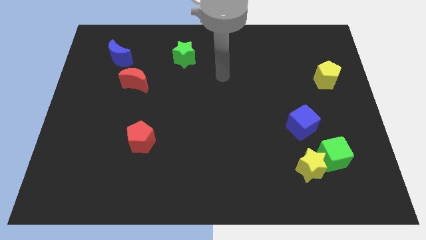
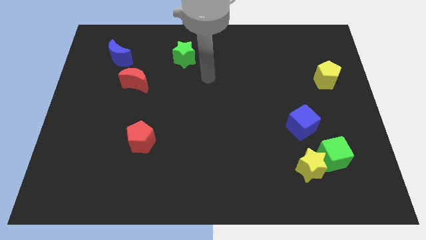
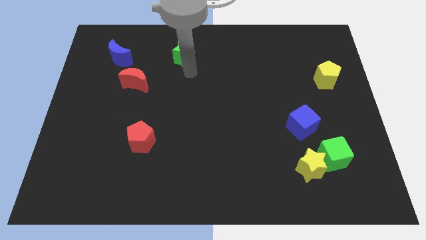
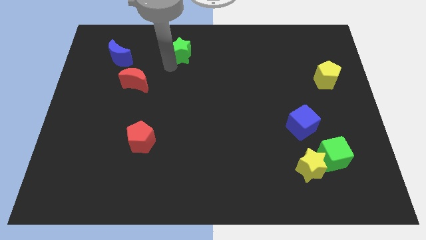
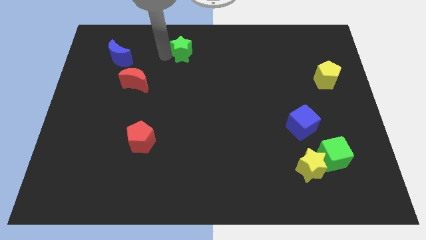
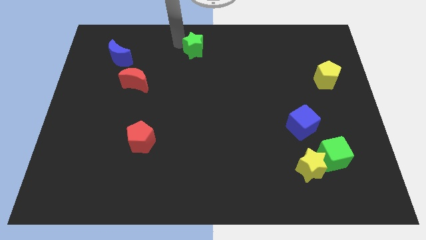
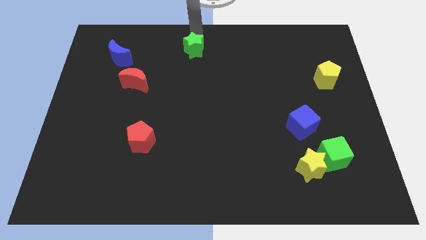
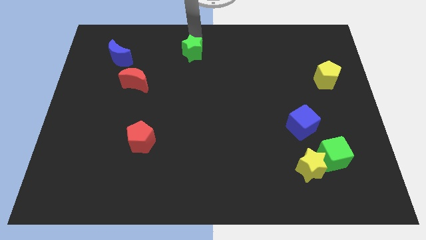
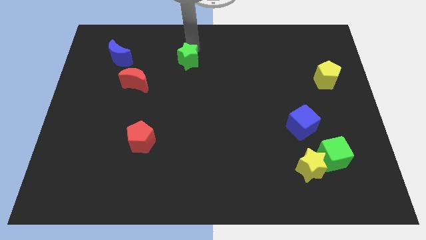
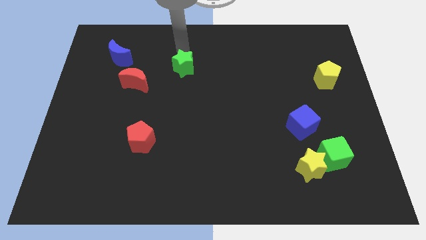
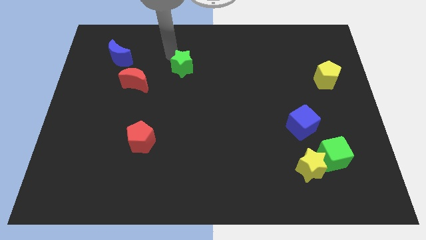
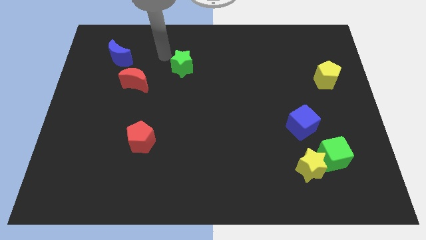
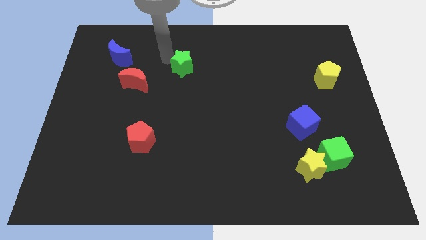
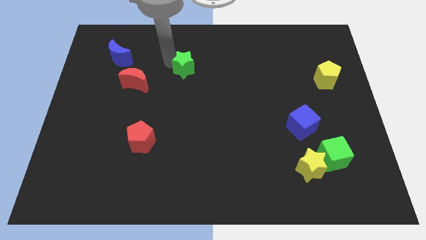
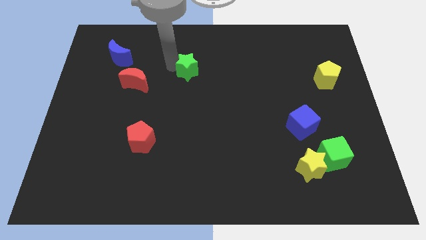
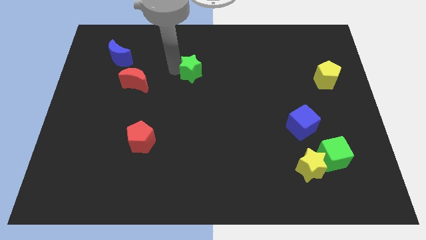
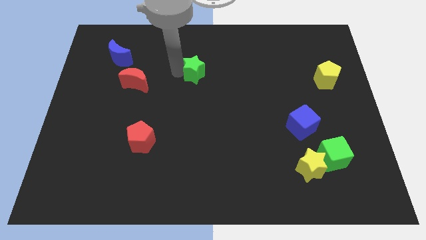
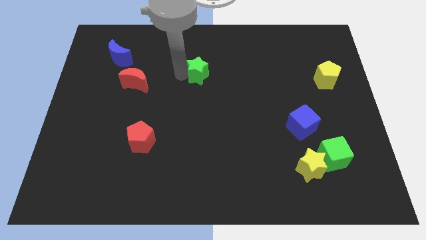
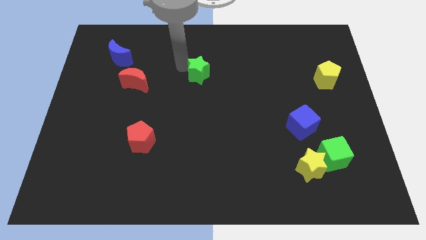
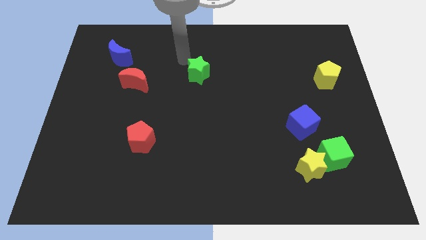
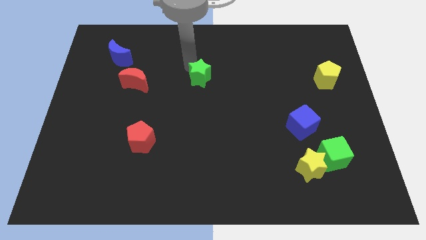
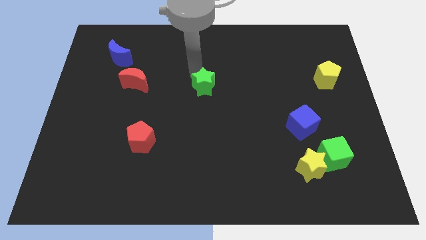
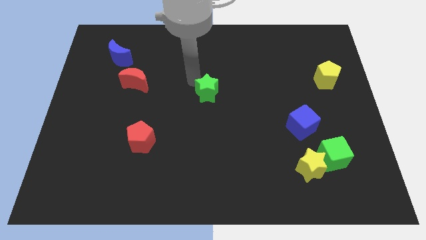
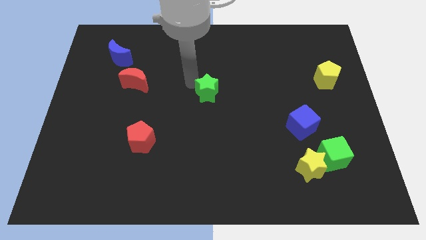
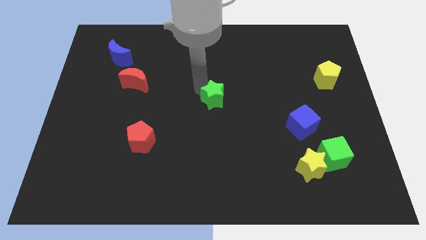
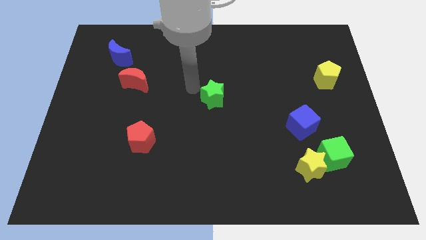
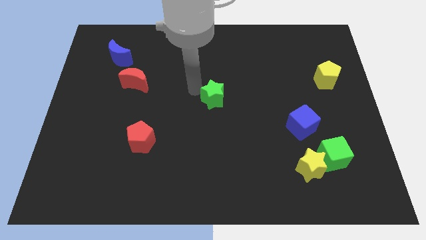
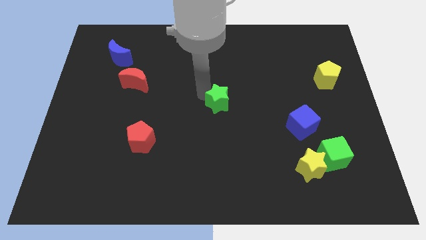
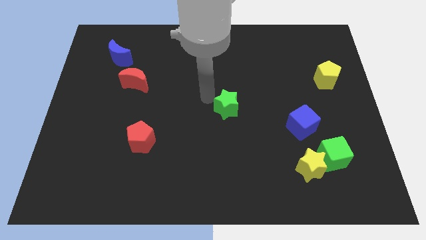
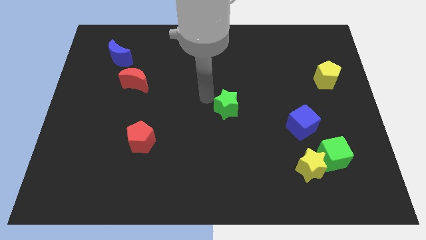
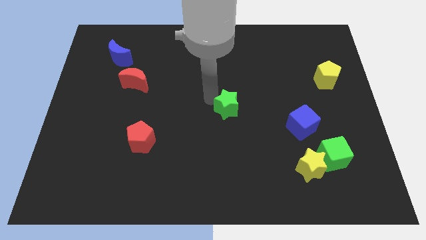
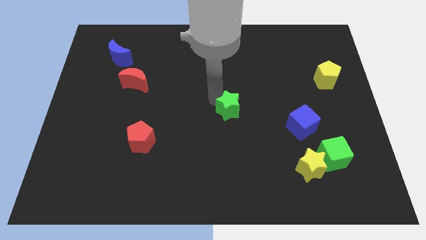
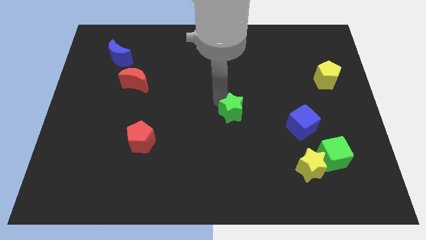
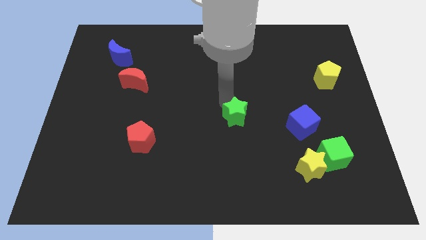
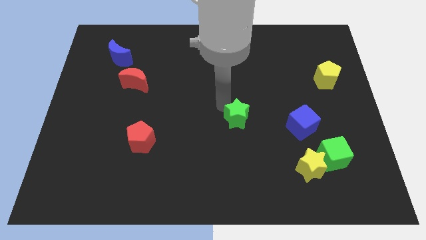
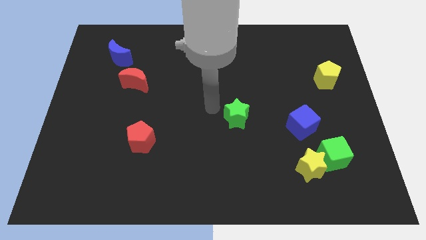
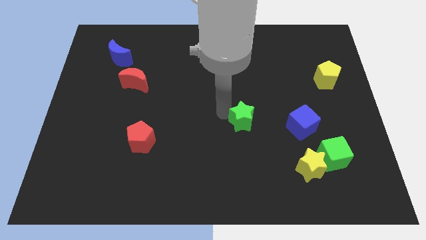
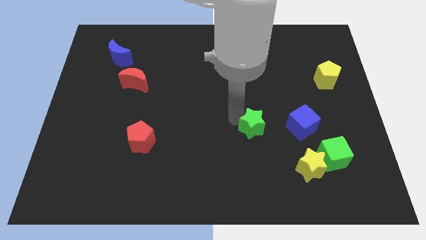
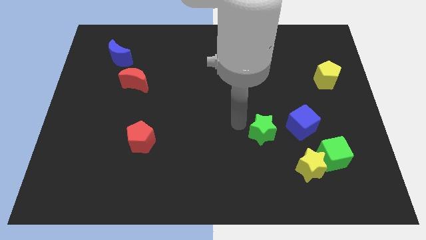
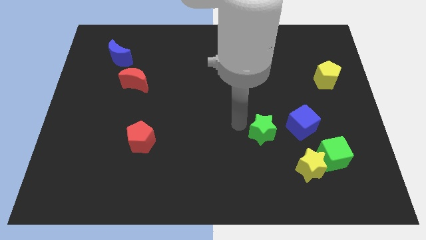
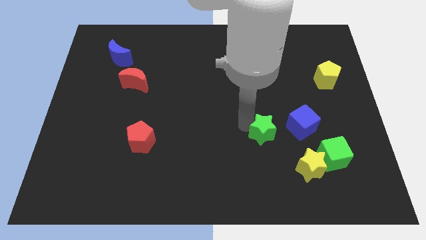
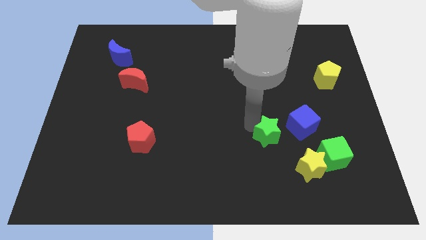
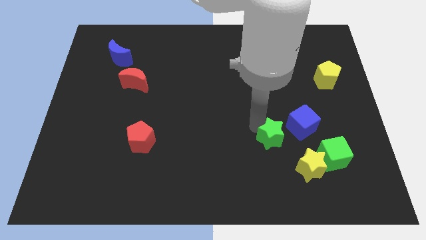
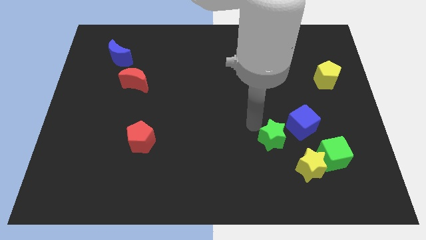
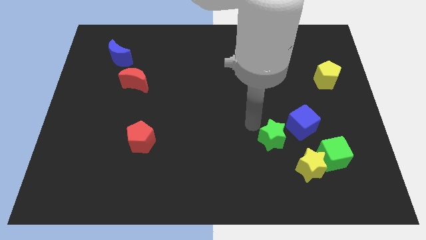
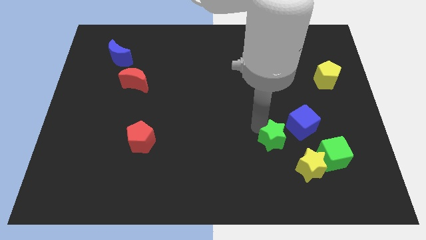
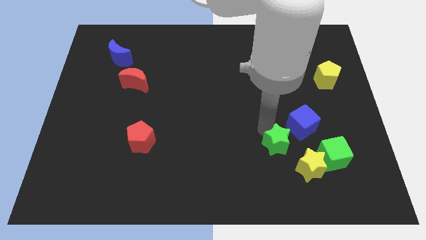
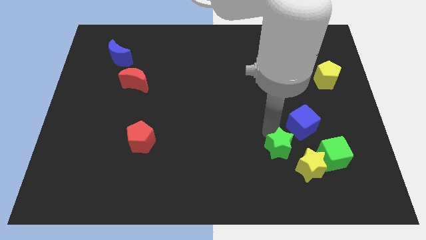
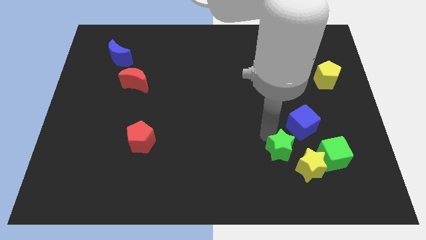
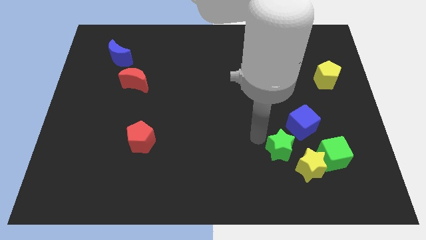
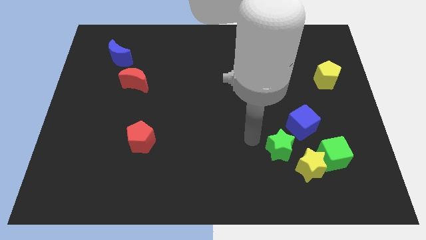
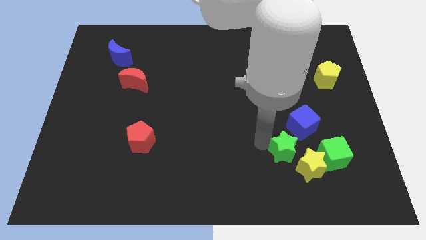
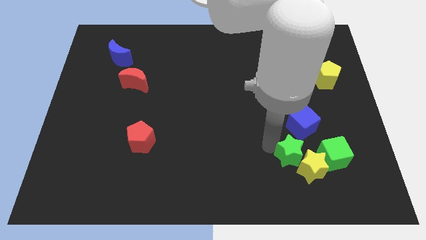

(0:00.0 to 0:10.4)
push the green star next to the yellow star

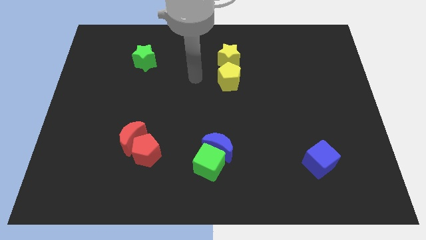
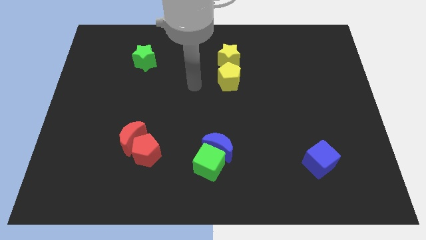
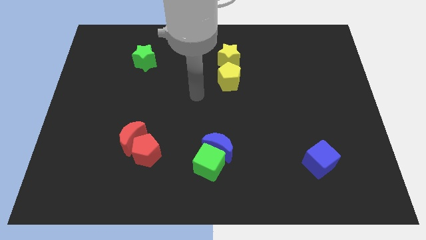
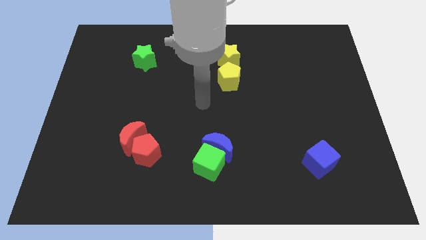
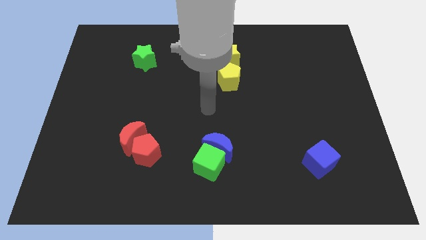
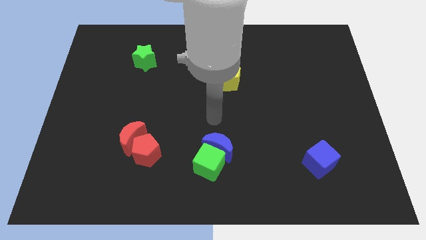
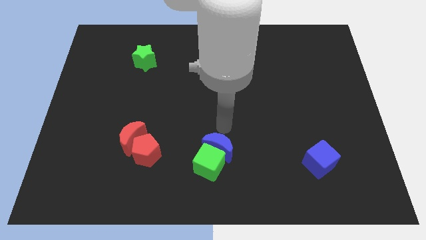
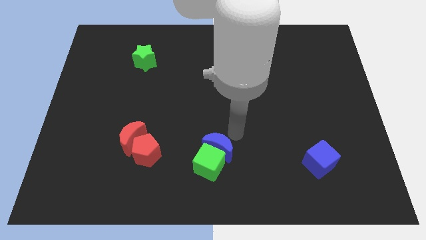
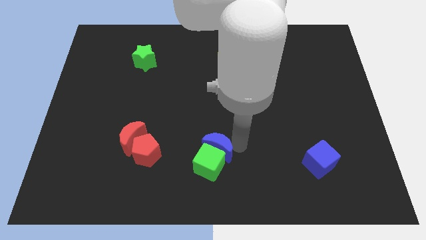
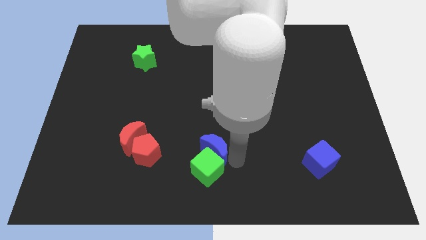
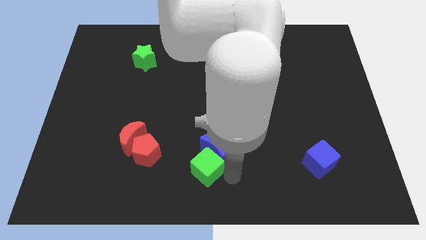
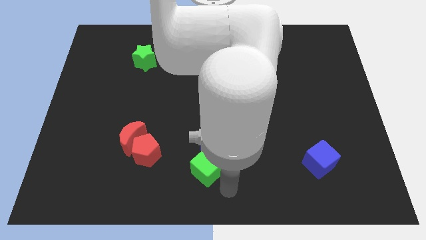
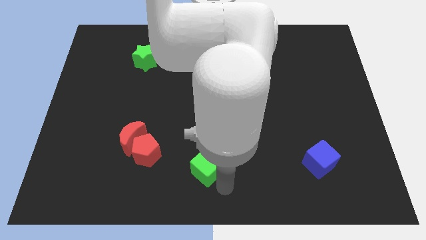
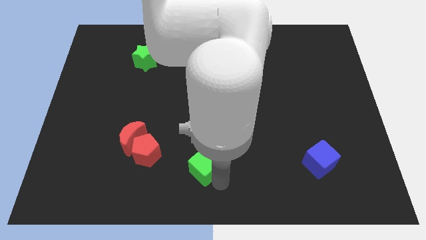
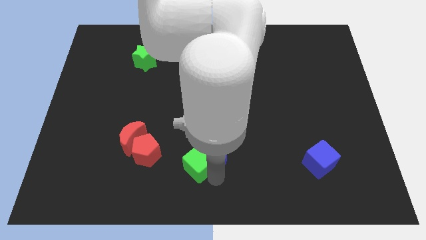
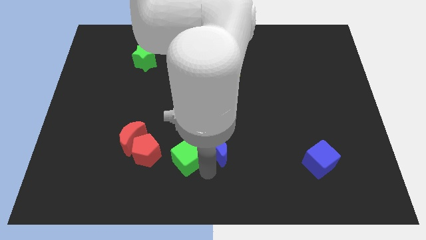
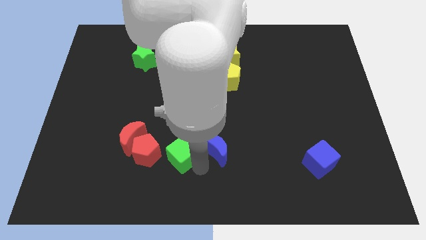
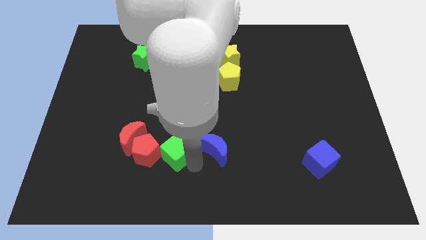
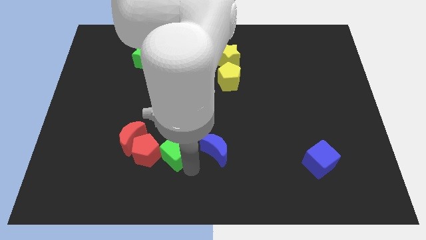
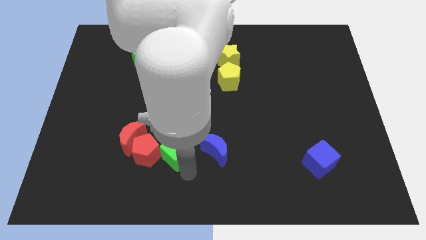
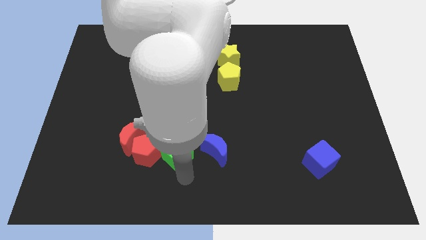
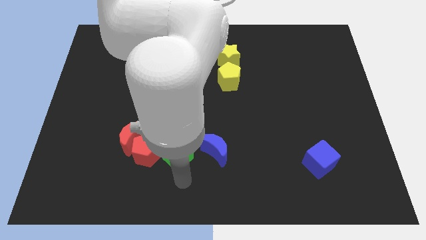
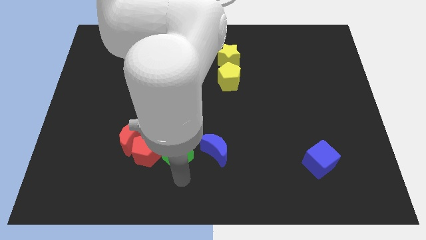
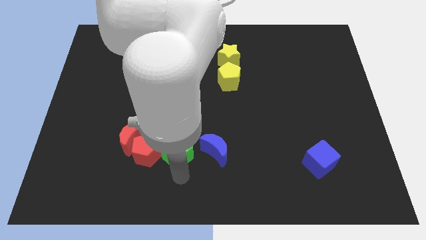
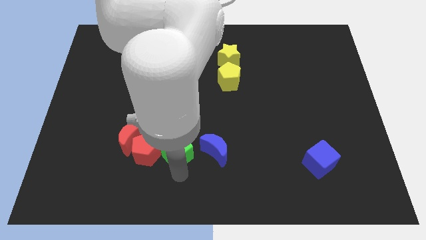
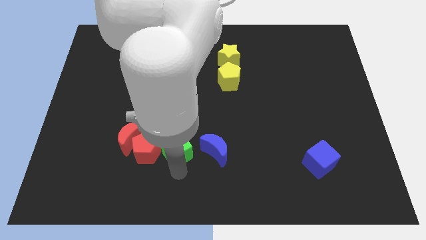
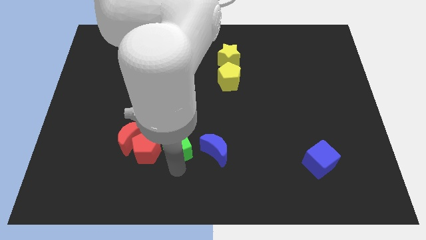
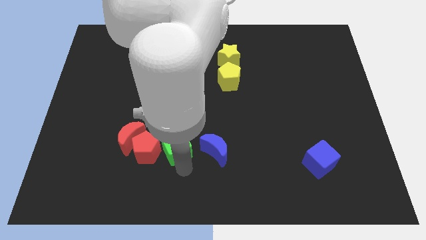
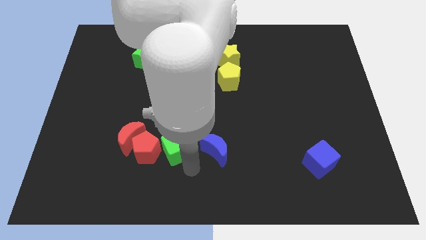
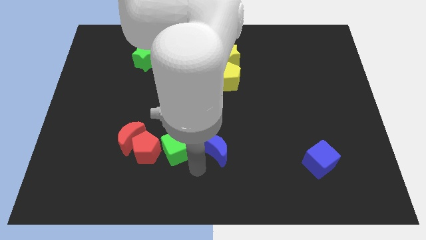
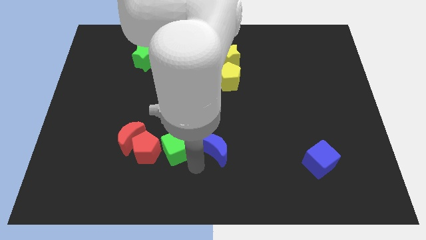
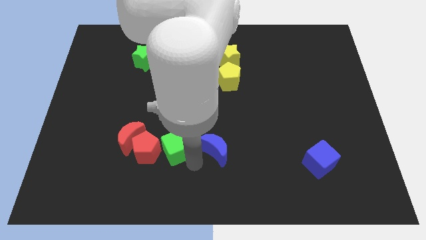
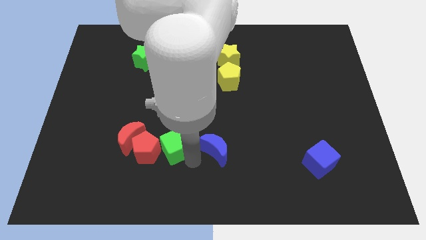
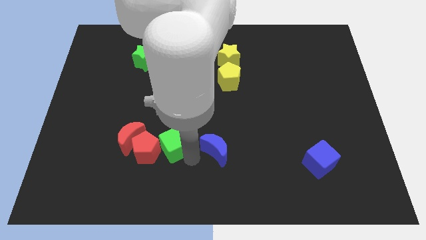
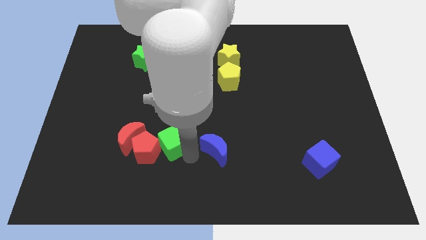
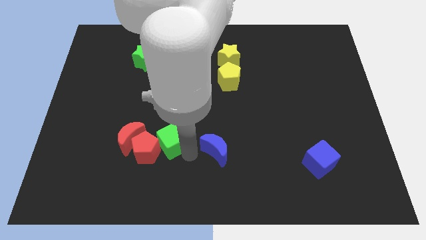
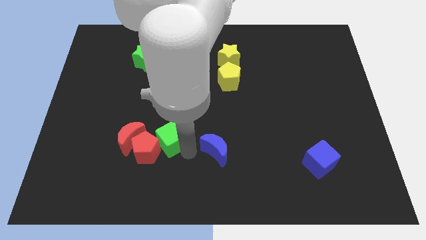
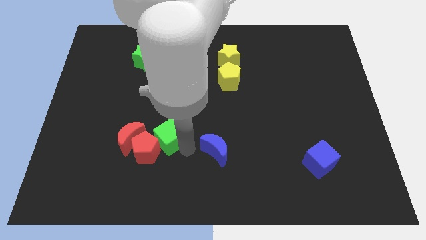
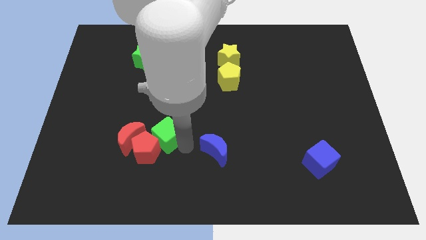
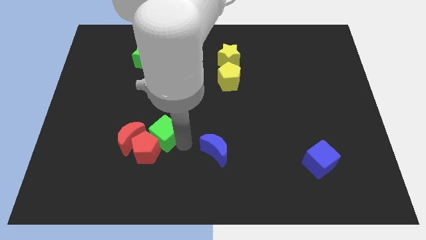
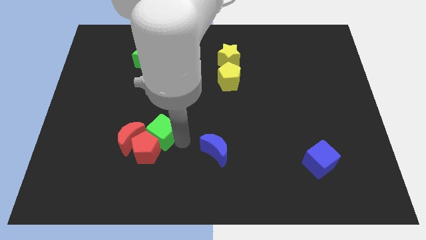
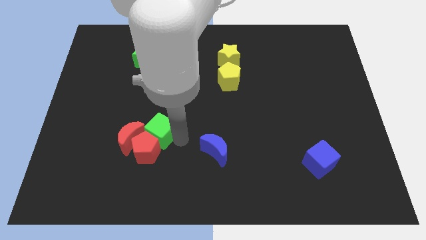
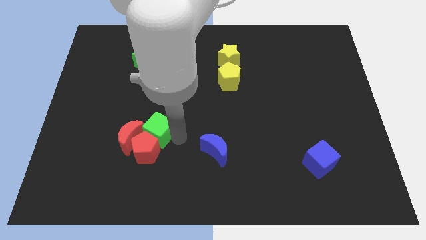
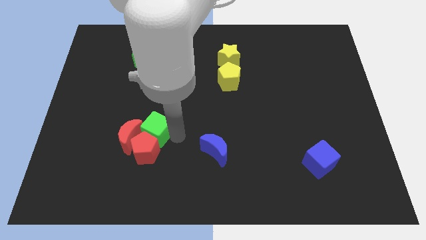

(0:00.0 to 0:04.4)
move the green cube towards the red moon
